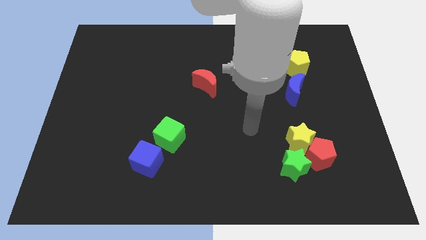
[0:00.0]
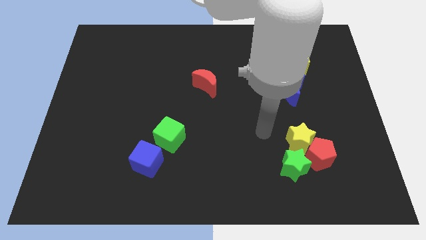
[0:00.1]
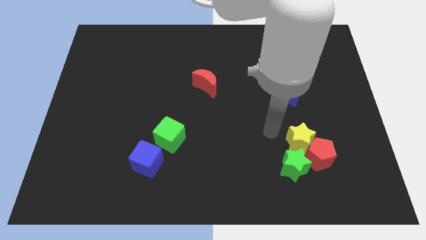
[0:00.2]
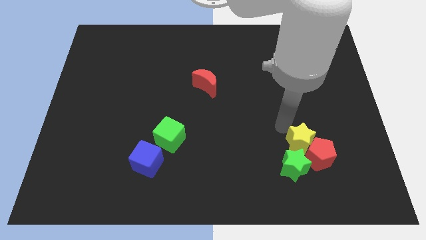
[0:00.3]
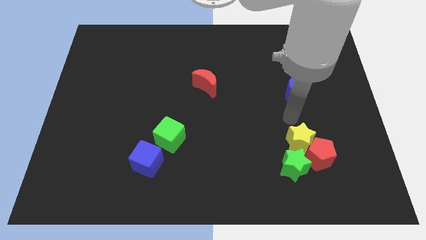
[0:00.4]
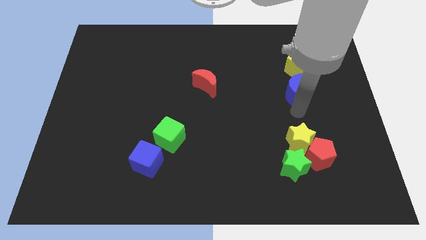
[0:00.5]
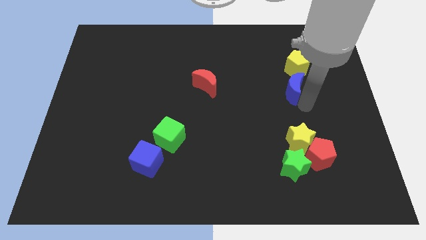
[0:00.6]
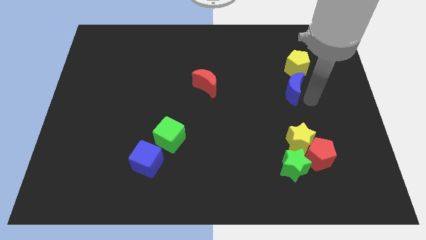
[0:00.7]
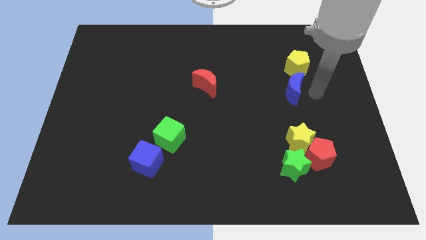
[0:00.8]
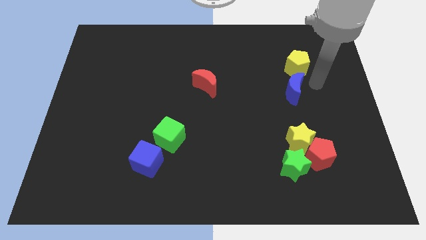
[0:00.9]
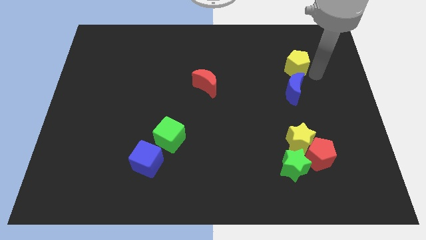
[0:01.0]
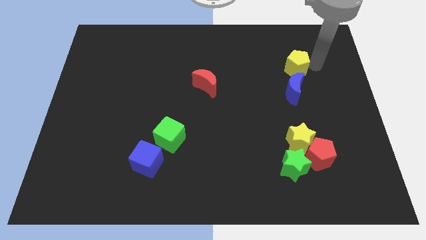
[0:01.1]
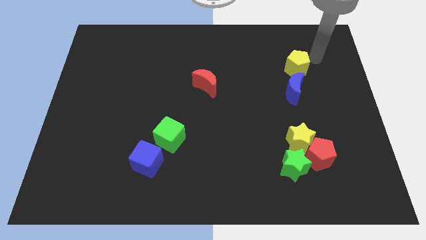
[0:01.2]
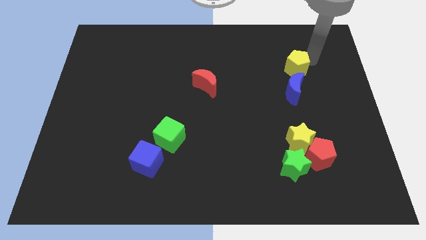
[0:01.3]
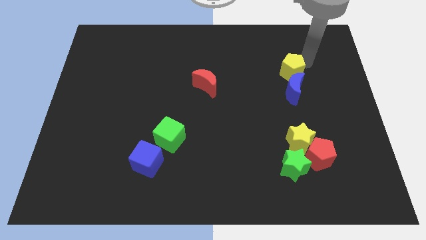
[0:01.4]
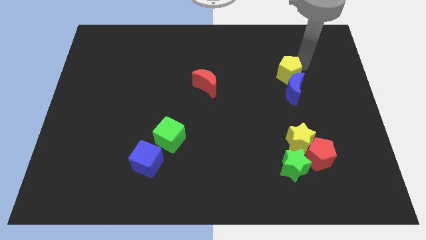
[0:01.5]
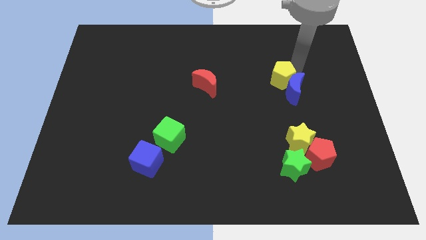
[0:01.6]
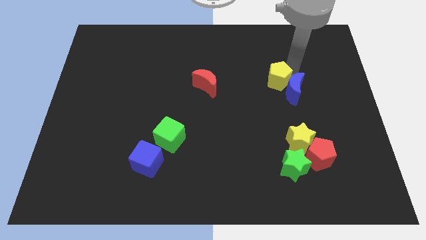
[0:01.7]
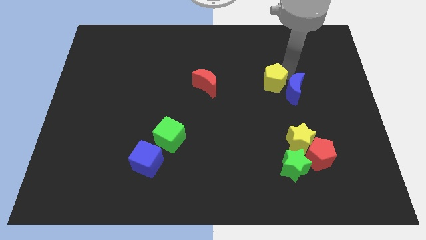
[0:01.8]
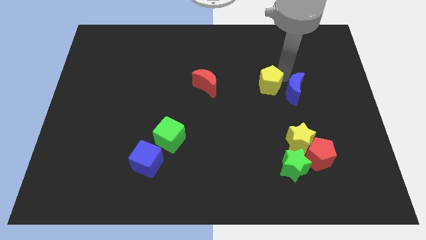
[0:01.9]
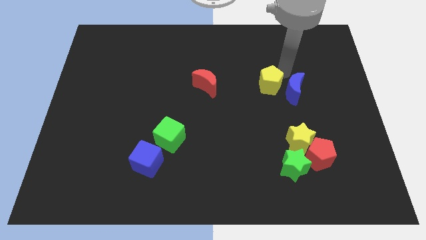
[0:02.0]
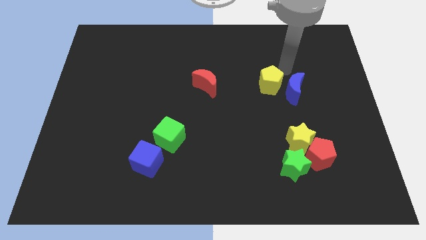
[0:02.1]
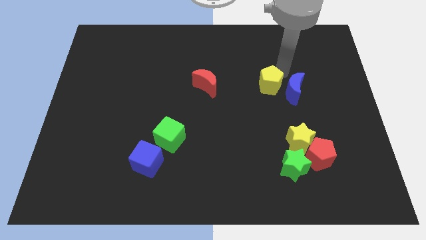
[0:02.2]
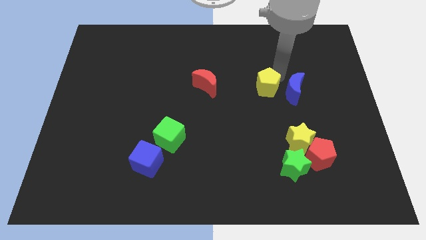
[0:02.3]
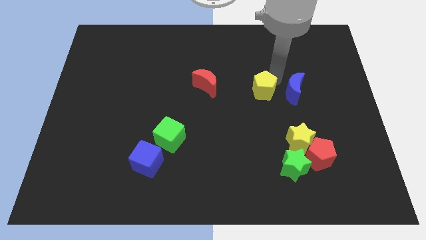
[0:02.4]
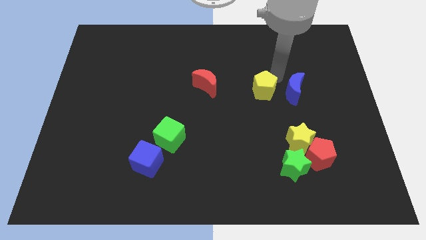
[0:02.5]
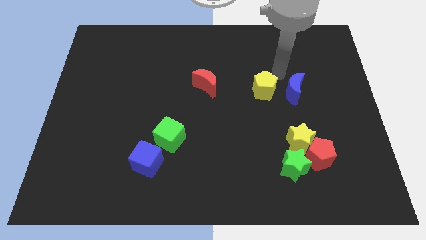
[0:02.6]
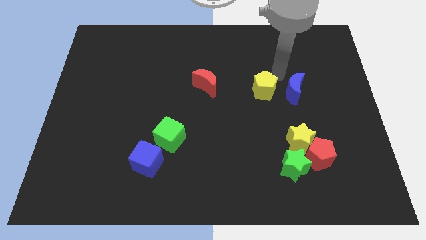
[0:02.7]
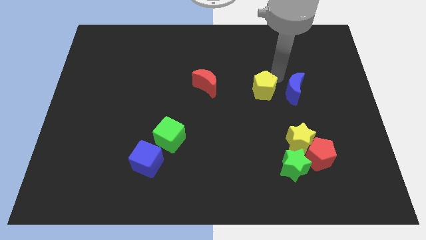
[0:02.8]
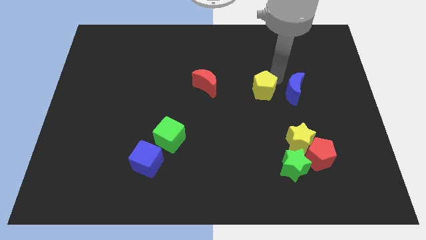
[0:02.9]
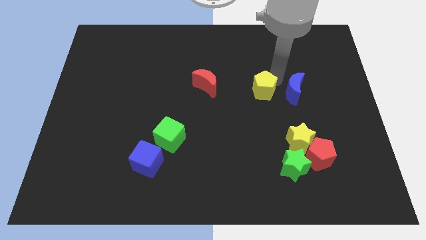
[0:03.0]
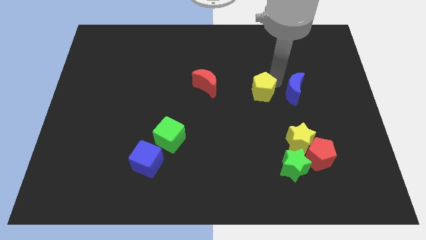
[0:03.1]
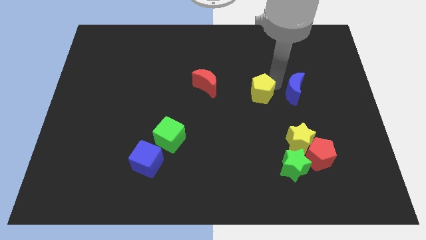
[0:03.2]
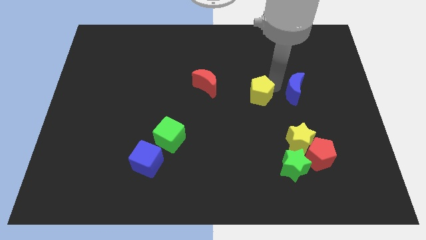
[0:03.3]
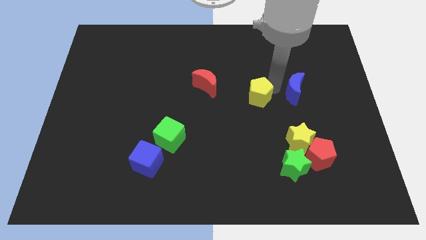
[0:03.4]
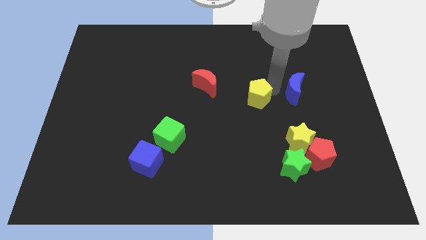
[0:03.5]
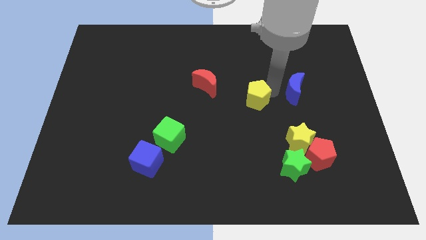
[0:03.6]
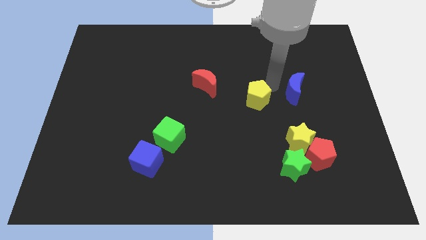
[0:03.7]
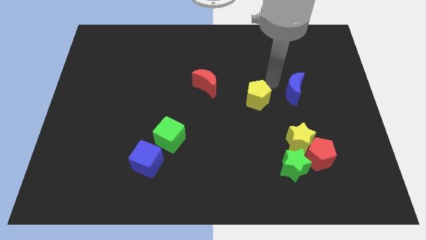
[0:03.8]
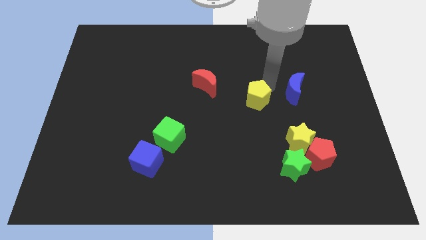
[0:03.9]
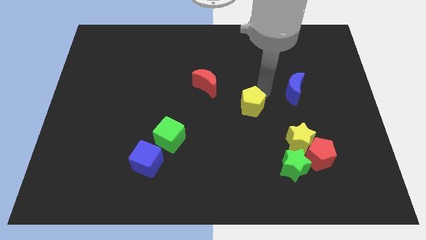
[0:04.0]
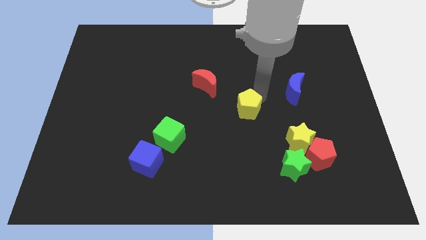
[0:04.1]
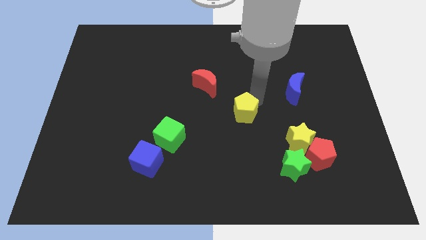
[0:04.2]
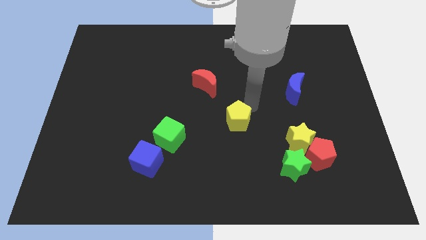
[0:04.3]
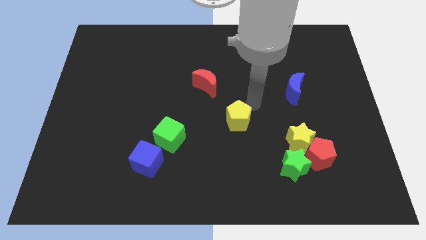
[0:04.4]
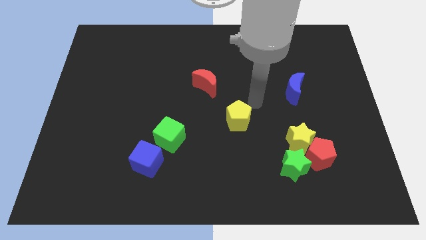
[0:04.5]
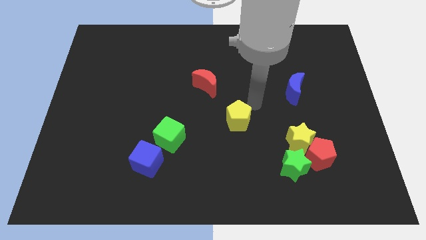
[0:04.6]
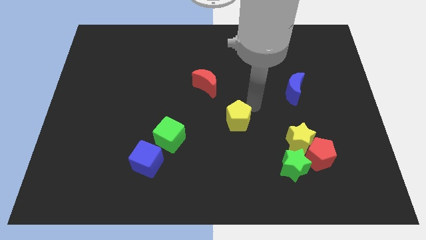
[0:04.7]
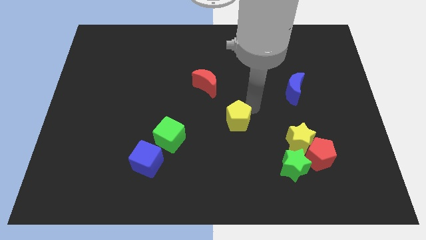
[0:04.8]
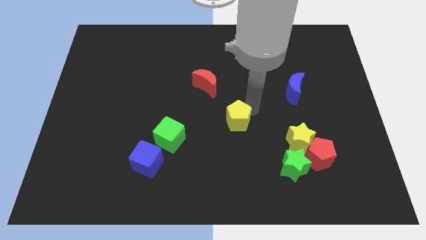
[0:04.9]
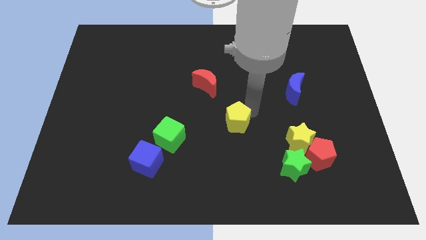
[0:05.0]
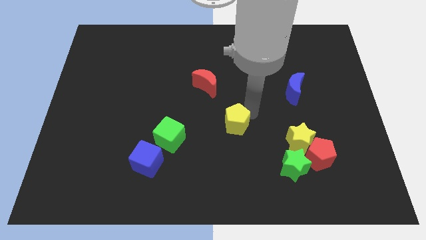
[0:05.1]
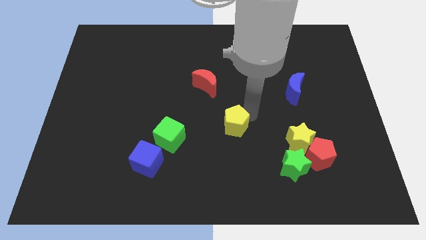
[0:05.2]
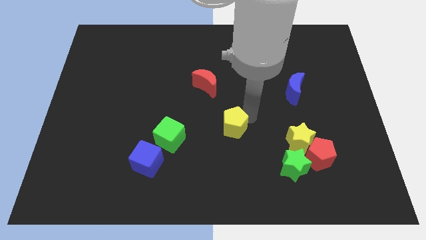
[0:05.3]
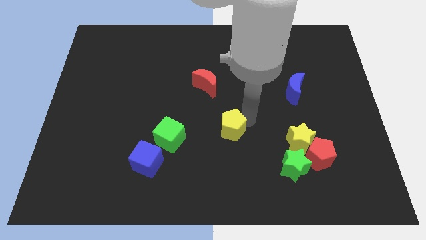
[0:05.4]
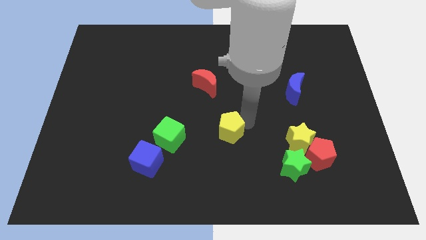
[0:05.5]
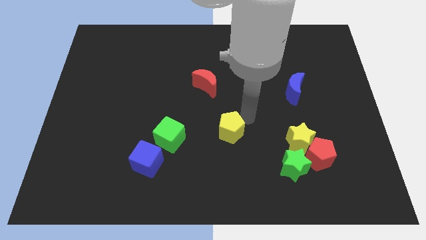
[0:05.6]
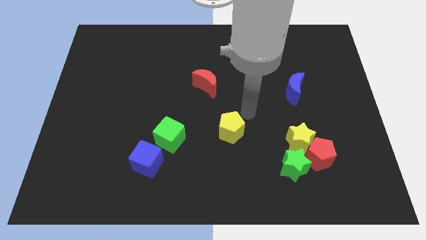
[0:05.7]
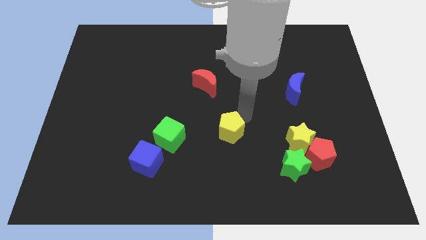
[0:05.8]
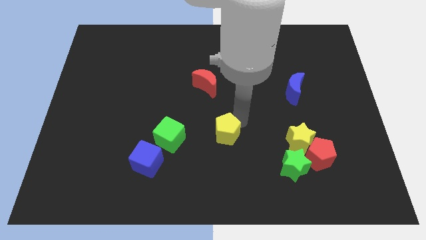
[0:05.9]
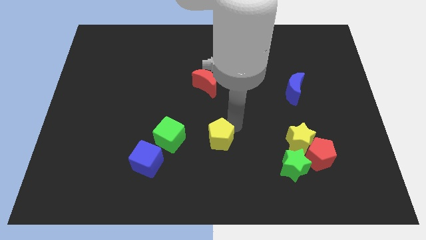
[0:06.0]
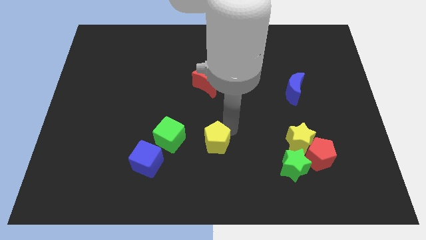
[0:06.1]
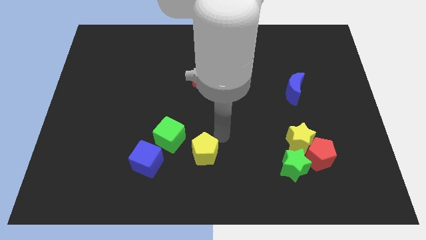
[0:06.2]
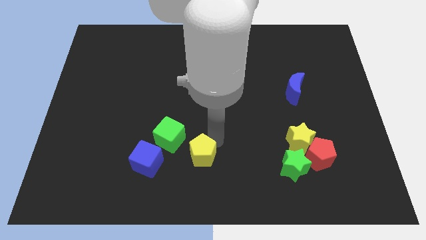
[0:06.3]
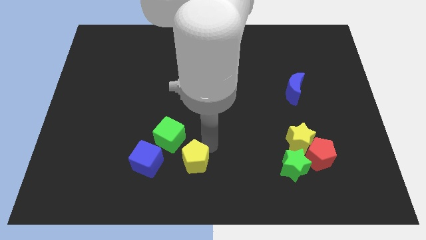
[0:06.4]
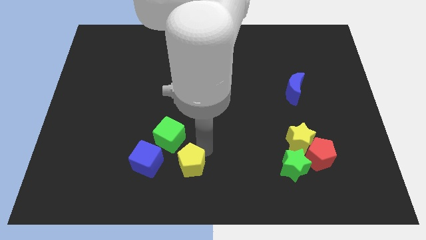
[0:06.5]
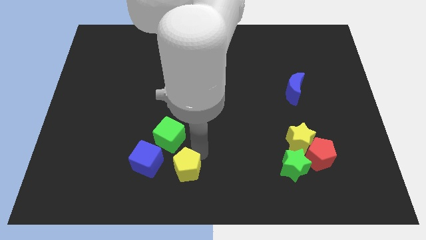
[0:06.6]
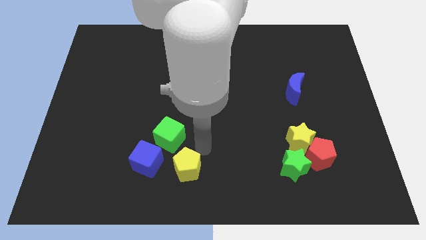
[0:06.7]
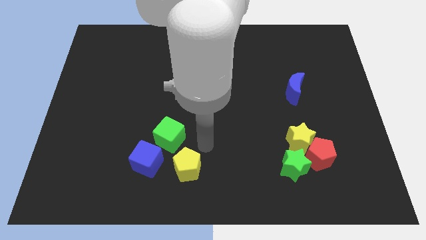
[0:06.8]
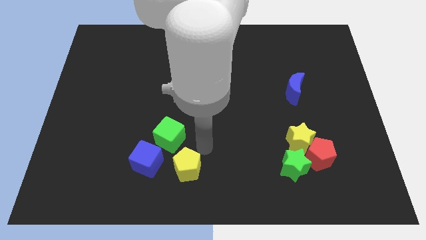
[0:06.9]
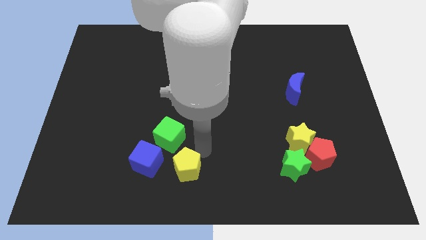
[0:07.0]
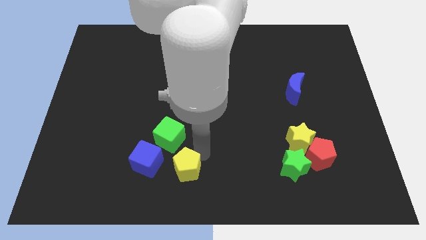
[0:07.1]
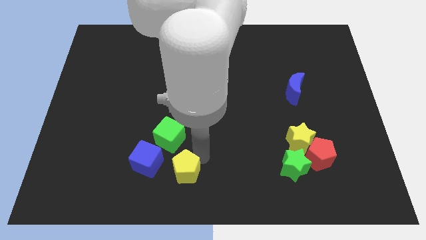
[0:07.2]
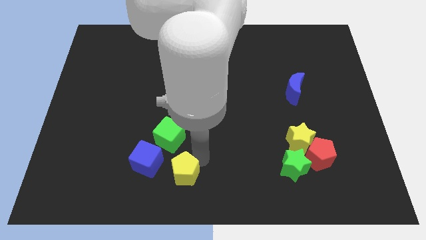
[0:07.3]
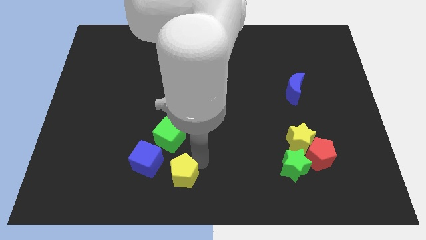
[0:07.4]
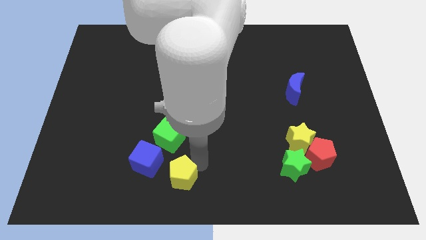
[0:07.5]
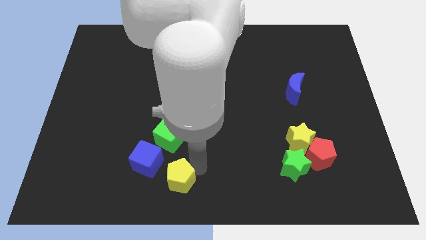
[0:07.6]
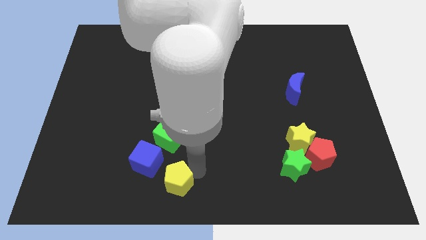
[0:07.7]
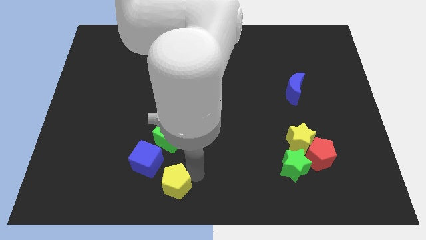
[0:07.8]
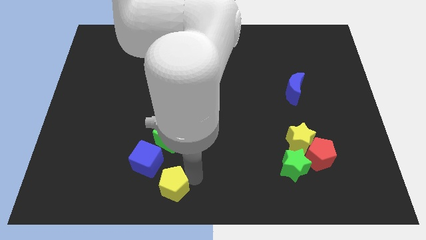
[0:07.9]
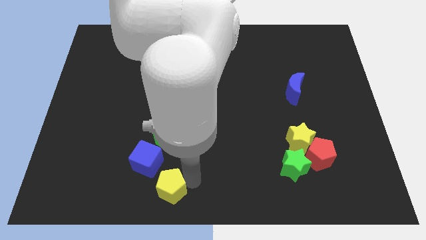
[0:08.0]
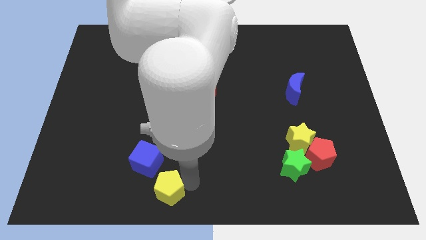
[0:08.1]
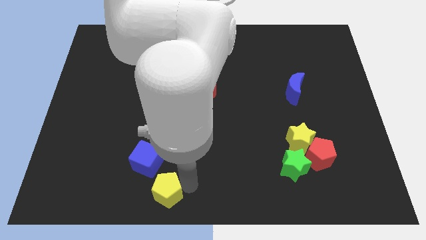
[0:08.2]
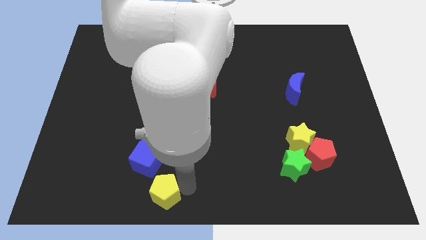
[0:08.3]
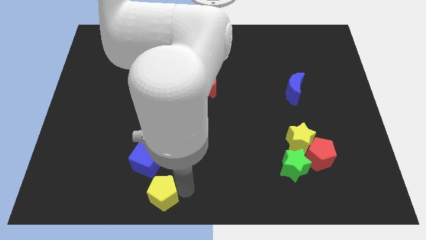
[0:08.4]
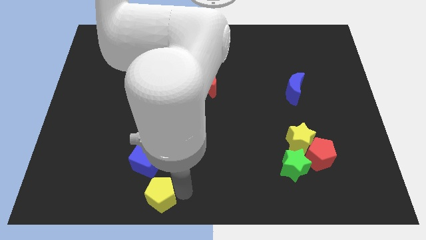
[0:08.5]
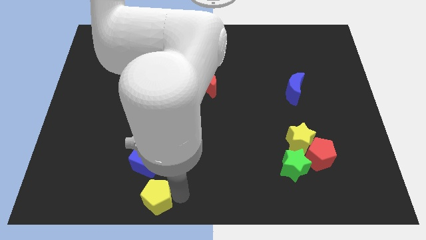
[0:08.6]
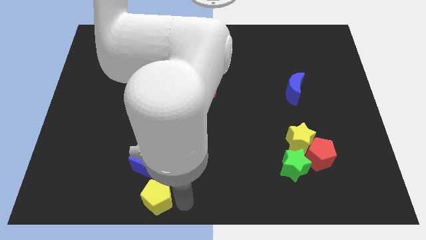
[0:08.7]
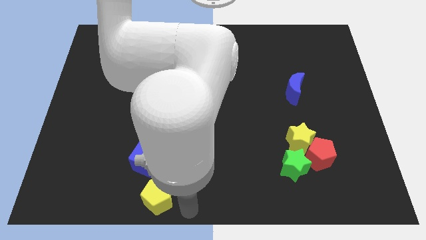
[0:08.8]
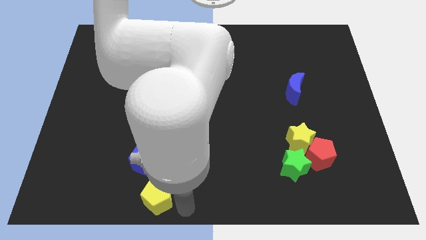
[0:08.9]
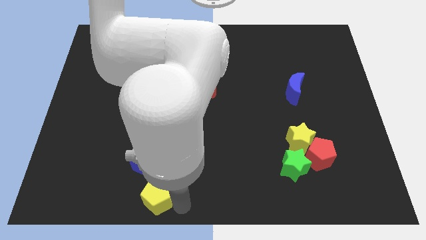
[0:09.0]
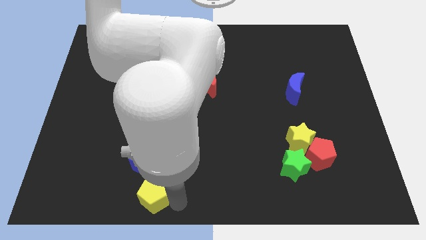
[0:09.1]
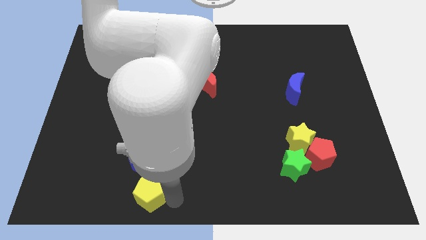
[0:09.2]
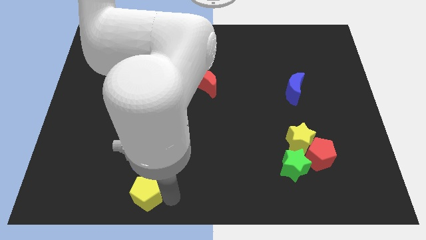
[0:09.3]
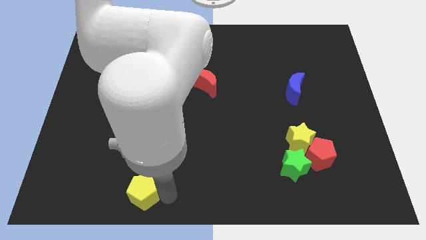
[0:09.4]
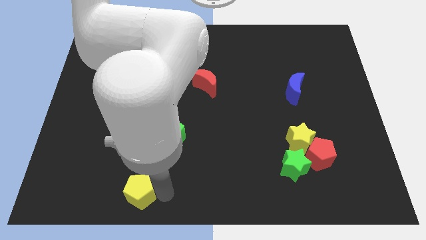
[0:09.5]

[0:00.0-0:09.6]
slide the yellow pentagon to the bottom left side of the blue cube
